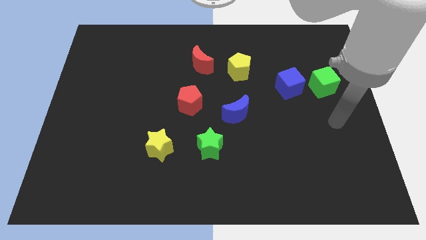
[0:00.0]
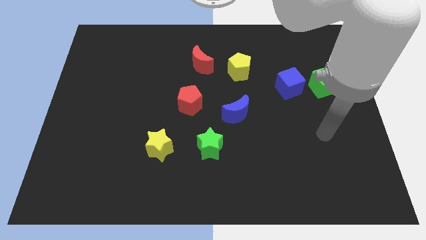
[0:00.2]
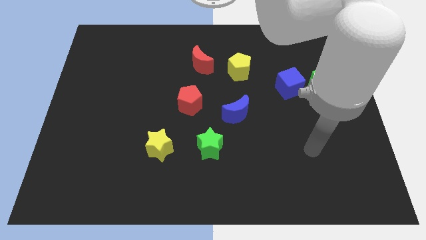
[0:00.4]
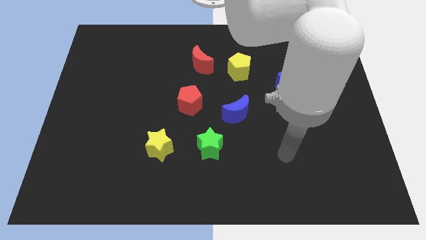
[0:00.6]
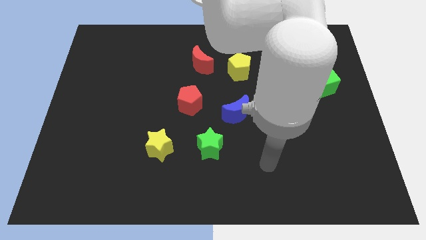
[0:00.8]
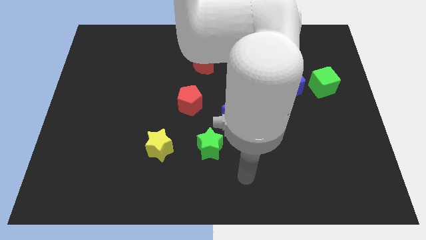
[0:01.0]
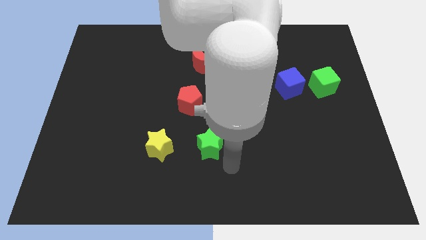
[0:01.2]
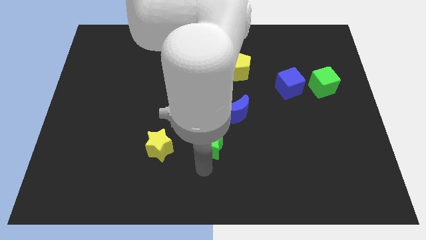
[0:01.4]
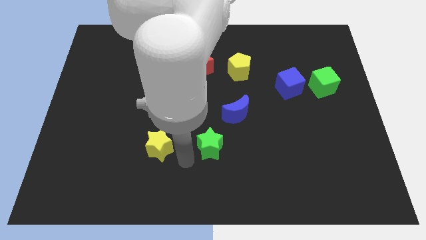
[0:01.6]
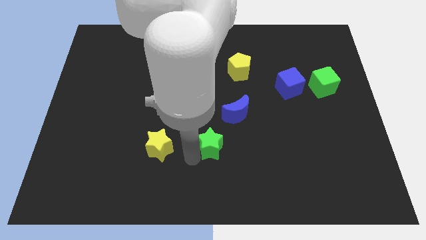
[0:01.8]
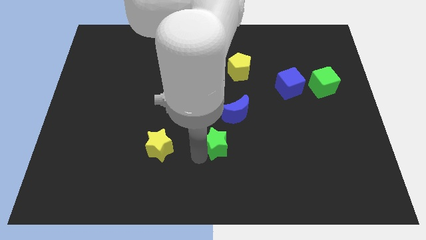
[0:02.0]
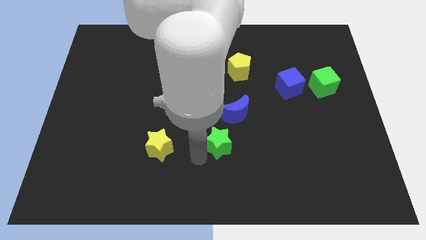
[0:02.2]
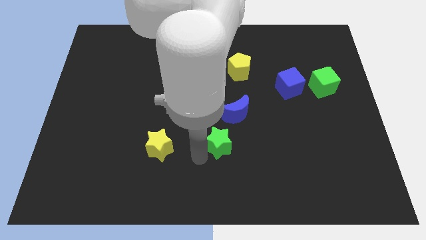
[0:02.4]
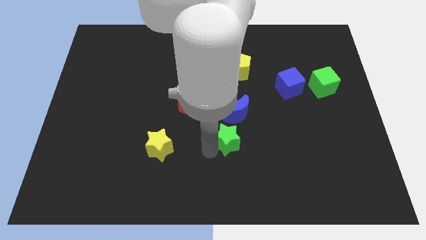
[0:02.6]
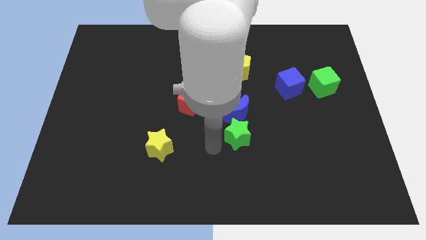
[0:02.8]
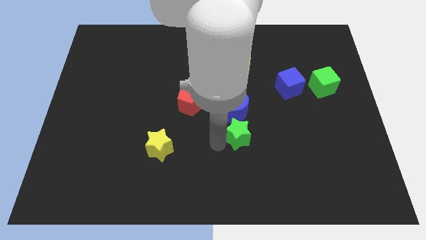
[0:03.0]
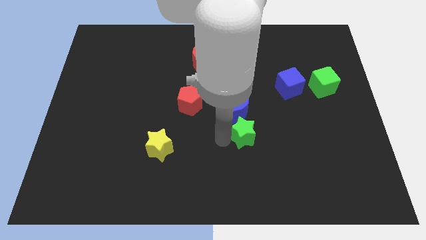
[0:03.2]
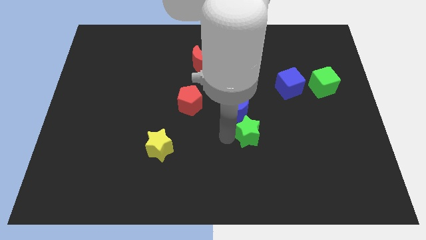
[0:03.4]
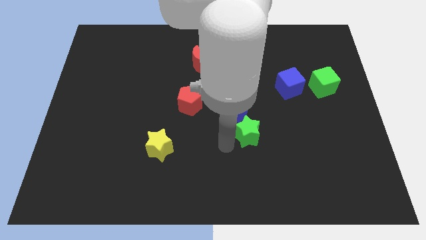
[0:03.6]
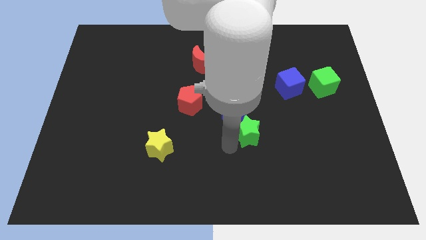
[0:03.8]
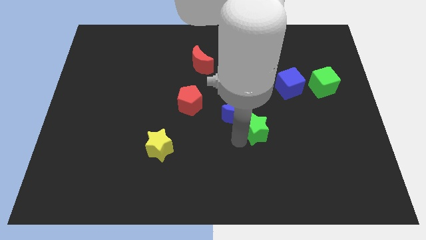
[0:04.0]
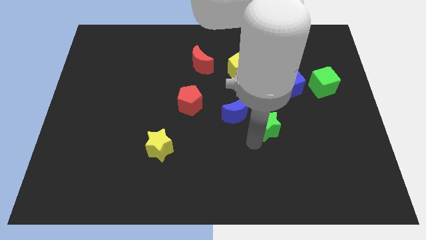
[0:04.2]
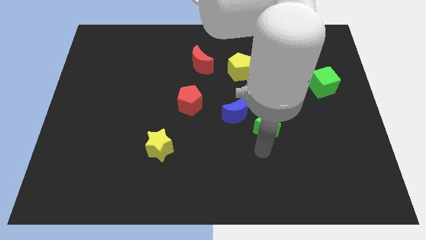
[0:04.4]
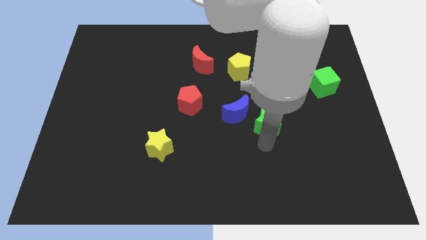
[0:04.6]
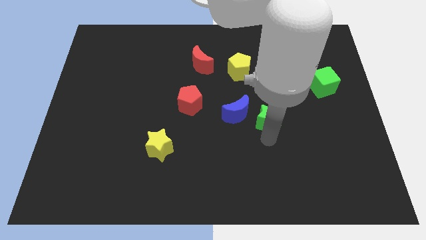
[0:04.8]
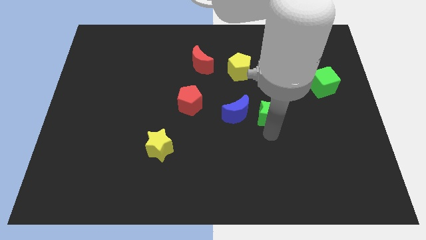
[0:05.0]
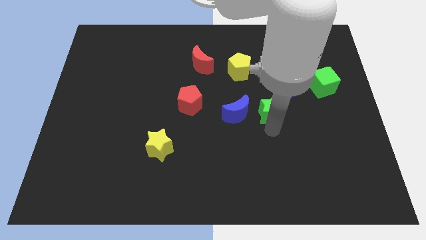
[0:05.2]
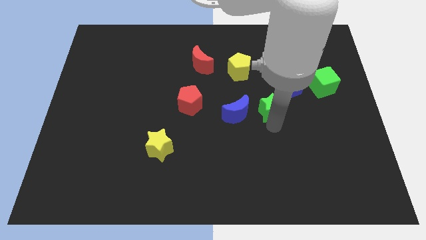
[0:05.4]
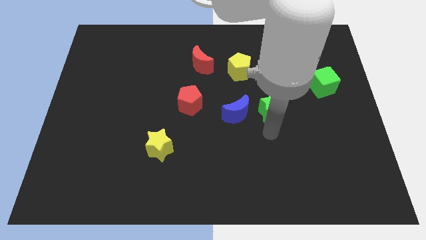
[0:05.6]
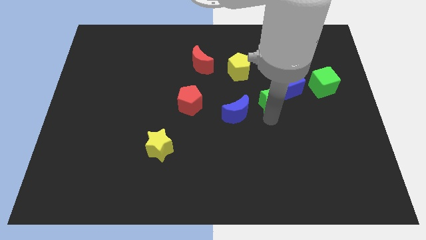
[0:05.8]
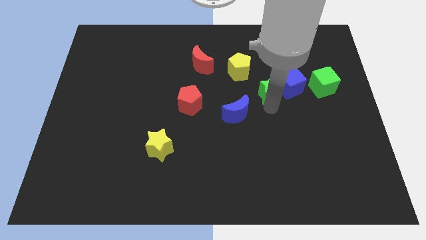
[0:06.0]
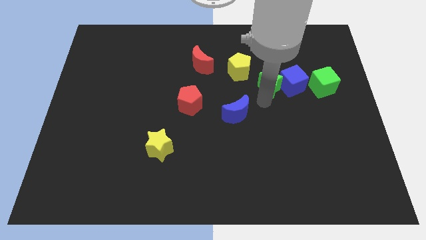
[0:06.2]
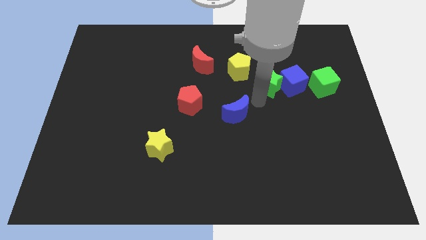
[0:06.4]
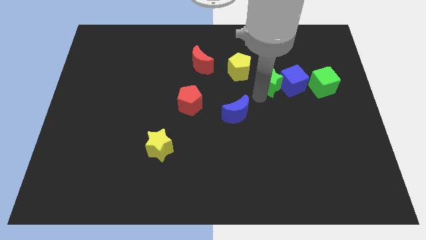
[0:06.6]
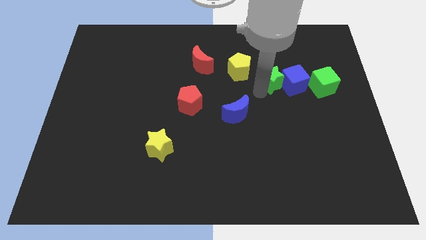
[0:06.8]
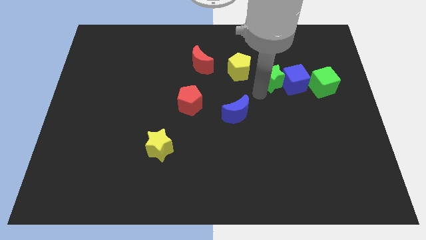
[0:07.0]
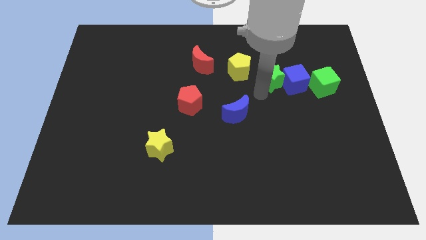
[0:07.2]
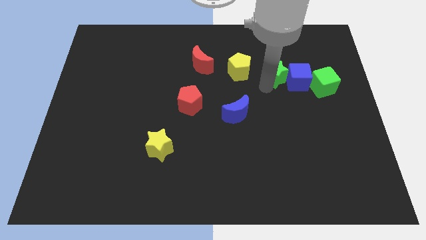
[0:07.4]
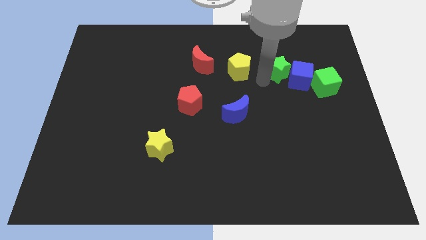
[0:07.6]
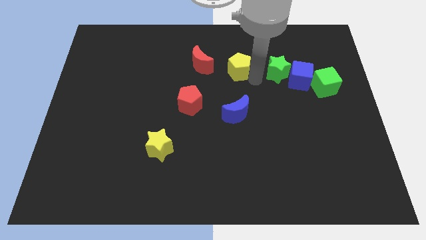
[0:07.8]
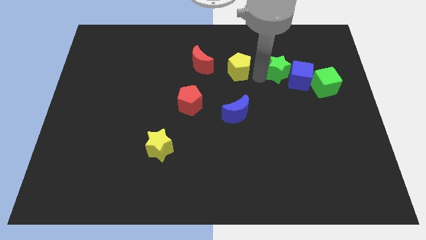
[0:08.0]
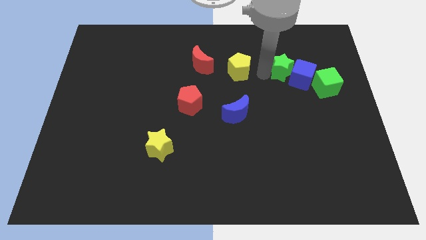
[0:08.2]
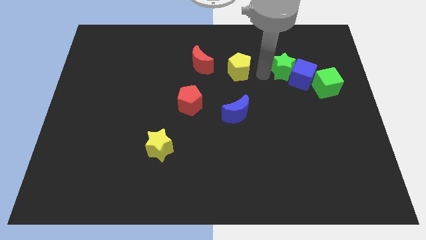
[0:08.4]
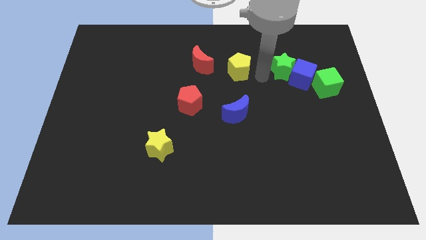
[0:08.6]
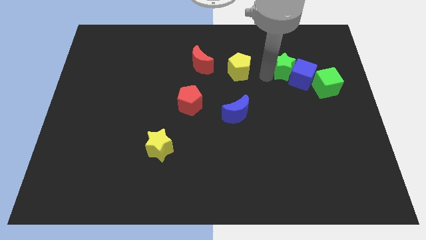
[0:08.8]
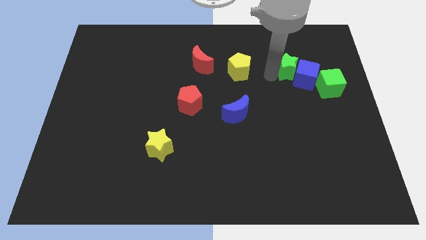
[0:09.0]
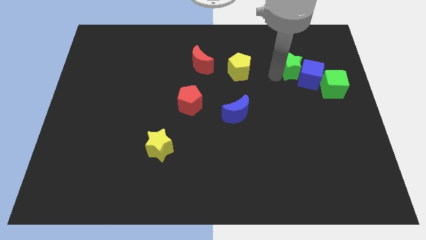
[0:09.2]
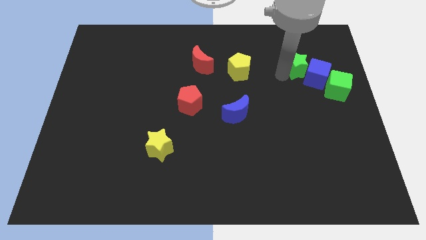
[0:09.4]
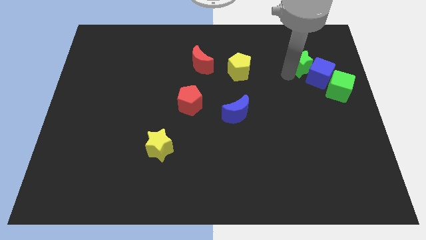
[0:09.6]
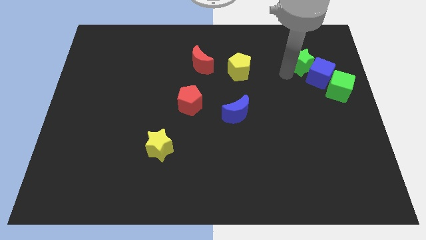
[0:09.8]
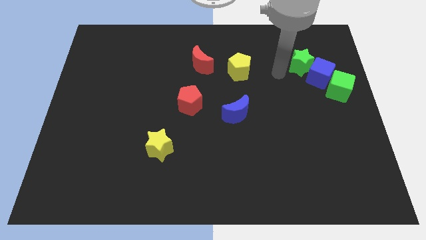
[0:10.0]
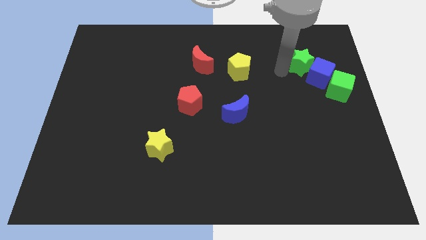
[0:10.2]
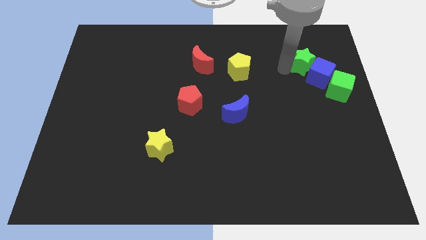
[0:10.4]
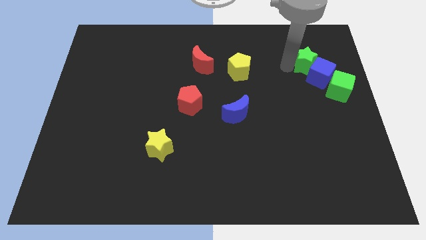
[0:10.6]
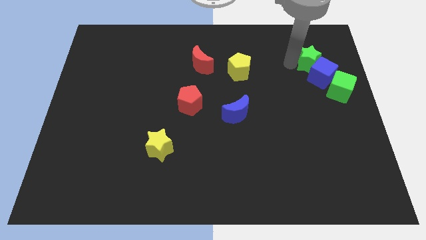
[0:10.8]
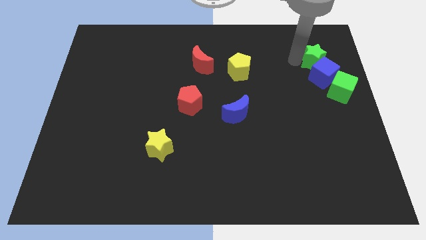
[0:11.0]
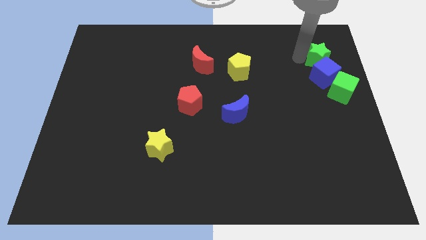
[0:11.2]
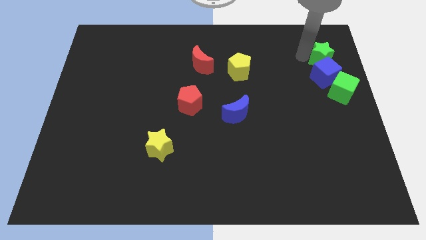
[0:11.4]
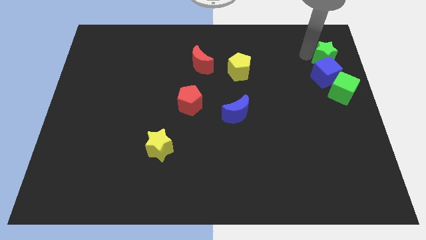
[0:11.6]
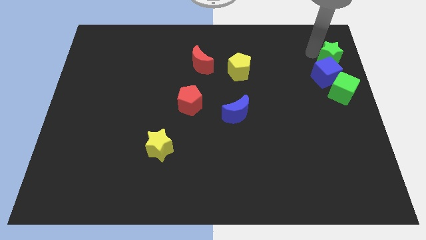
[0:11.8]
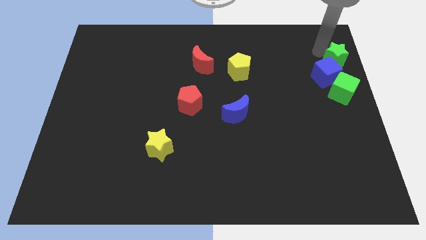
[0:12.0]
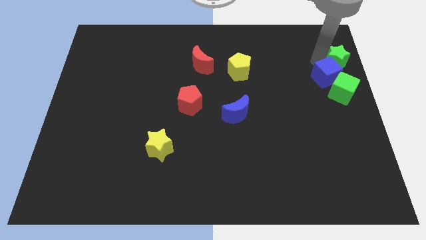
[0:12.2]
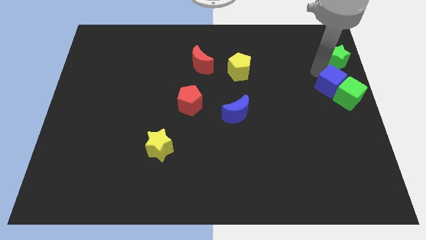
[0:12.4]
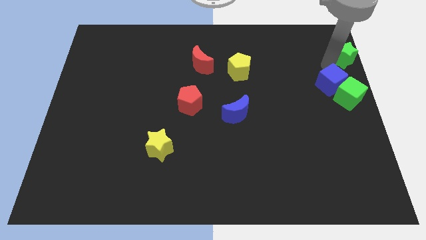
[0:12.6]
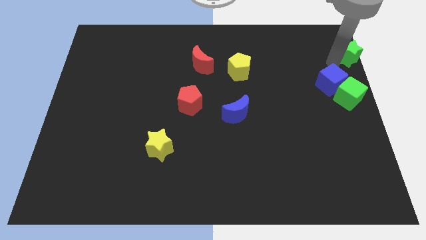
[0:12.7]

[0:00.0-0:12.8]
push the green star to the top right corner

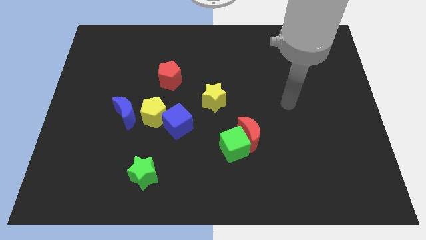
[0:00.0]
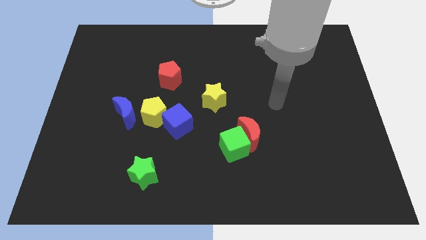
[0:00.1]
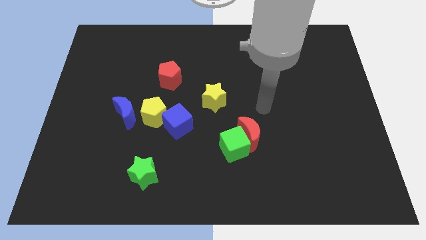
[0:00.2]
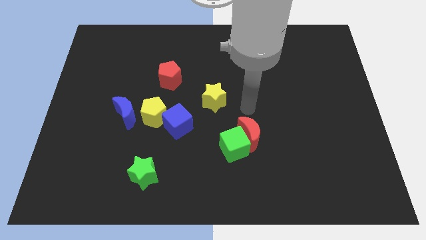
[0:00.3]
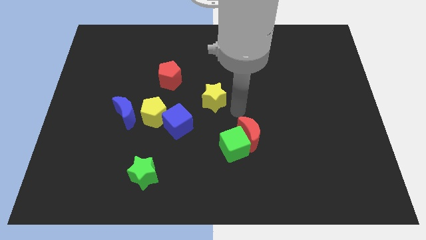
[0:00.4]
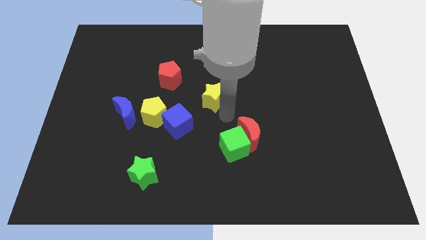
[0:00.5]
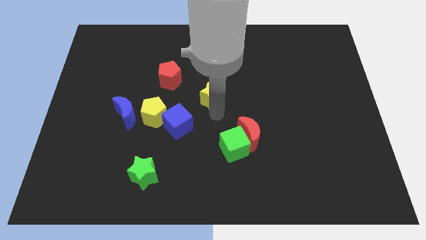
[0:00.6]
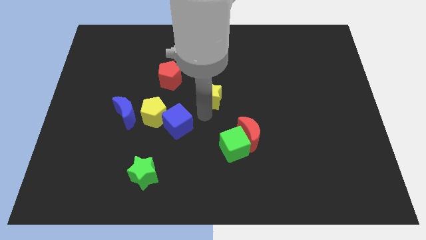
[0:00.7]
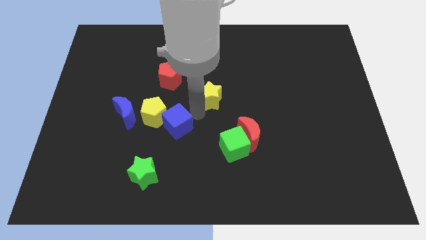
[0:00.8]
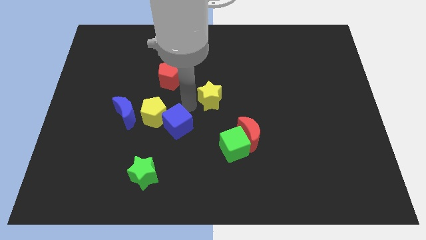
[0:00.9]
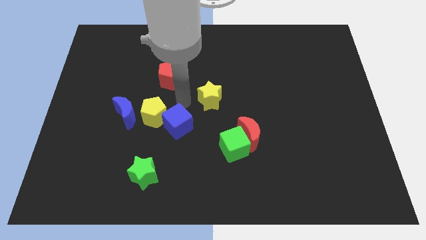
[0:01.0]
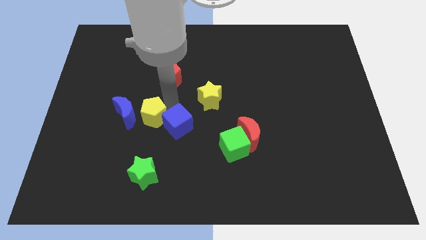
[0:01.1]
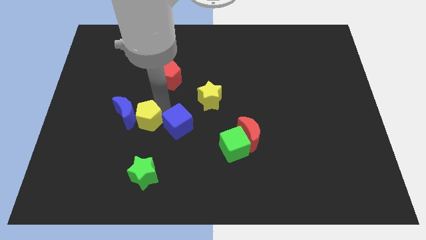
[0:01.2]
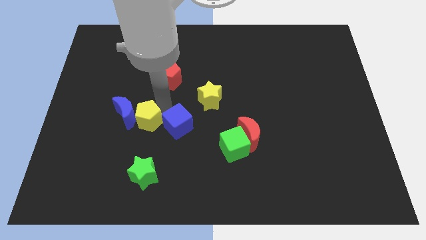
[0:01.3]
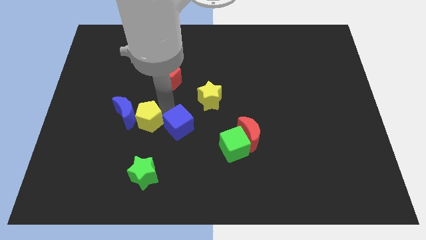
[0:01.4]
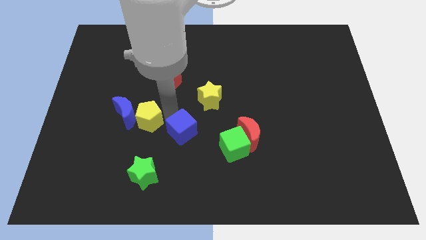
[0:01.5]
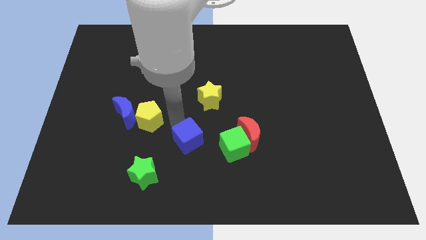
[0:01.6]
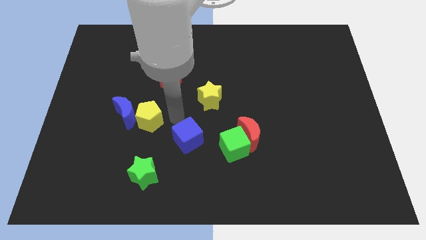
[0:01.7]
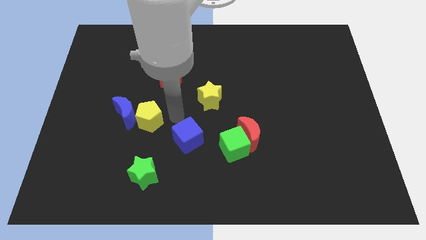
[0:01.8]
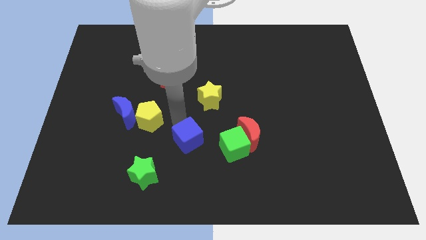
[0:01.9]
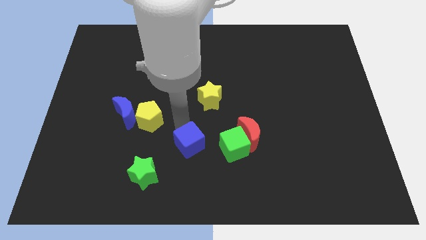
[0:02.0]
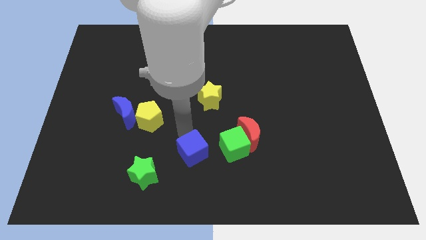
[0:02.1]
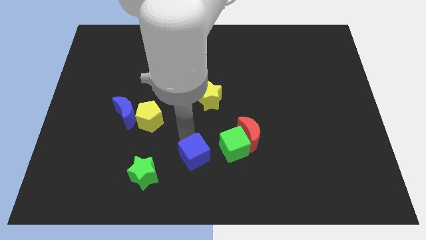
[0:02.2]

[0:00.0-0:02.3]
push the blue cube to the bottom side
